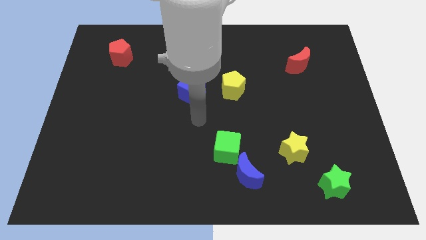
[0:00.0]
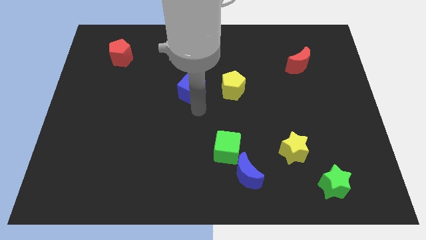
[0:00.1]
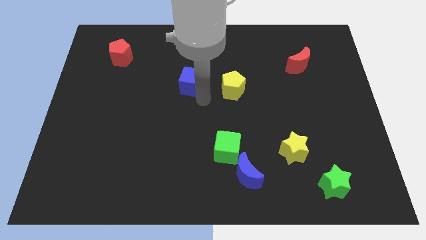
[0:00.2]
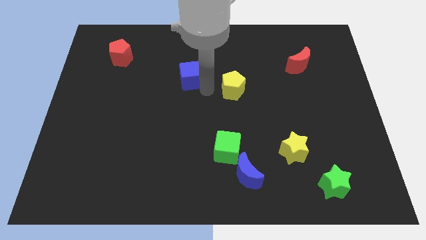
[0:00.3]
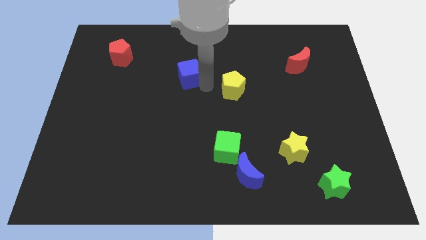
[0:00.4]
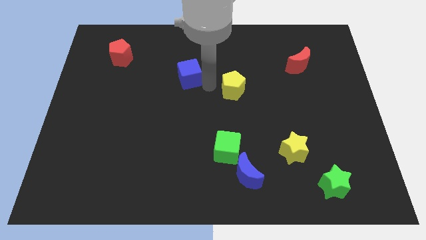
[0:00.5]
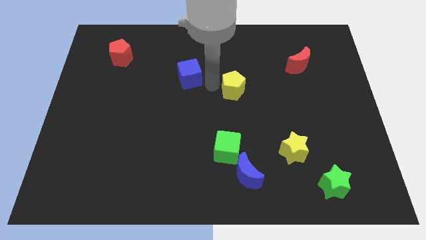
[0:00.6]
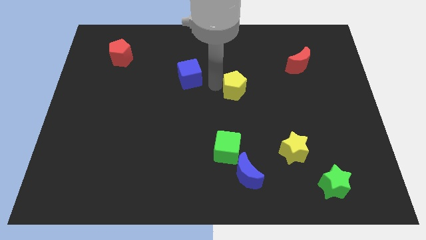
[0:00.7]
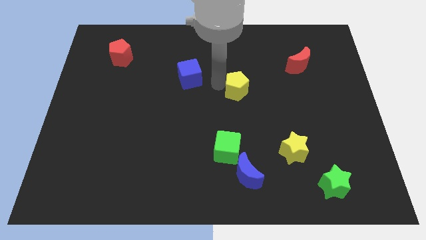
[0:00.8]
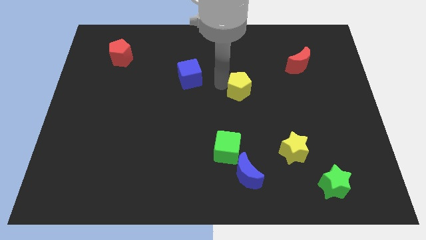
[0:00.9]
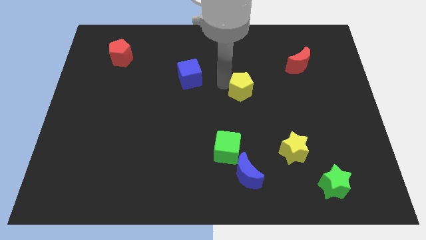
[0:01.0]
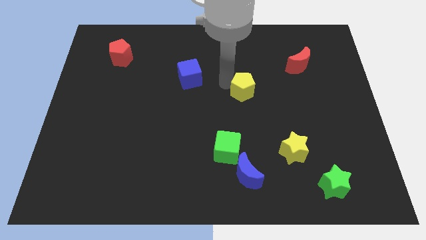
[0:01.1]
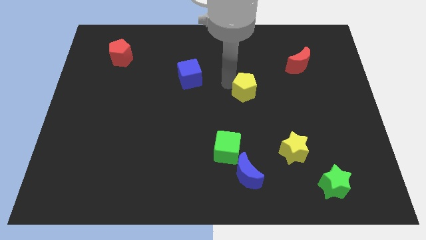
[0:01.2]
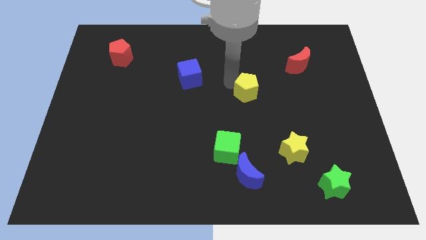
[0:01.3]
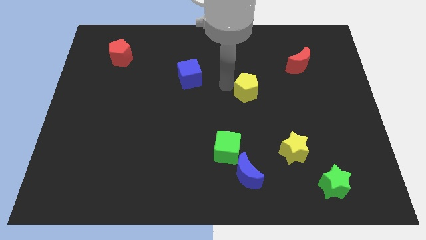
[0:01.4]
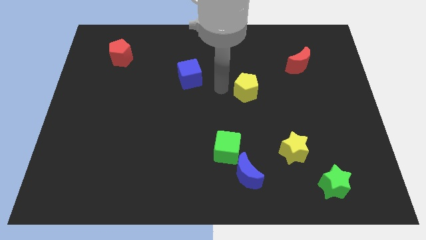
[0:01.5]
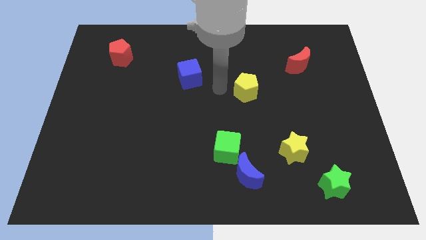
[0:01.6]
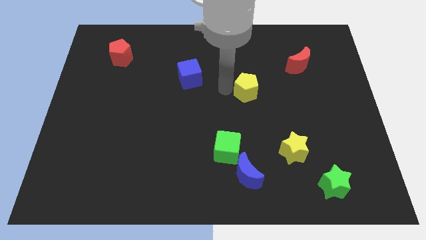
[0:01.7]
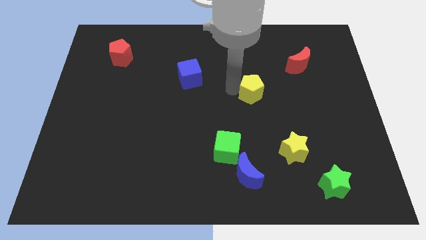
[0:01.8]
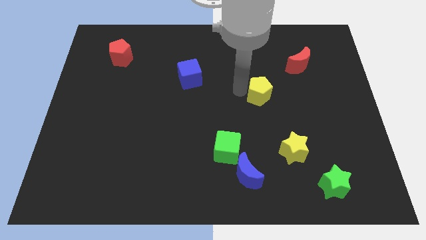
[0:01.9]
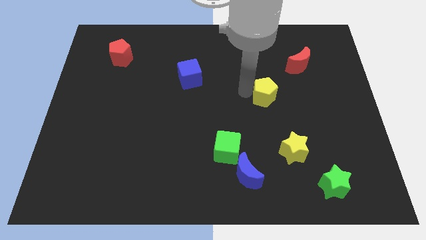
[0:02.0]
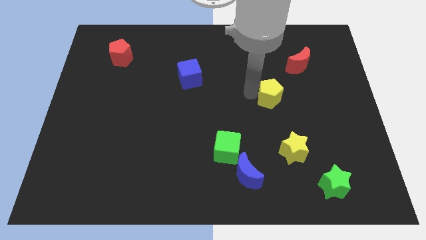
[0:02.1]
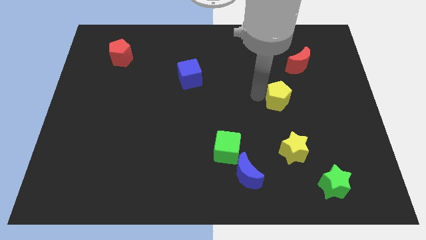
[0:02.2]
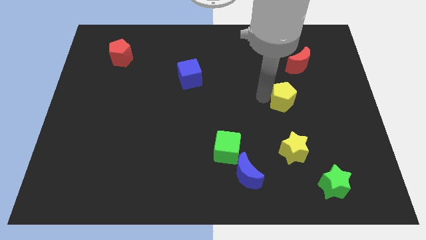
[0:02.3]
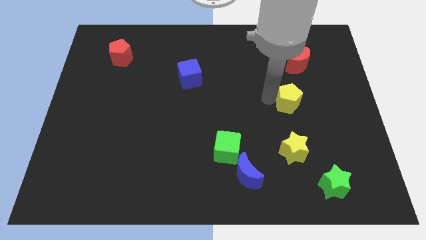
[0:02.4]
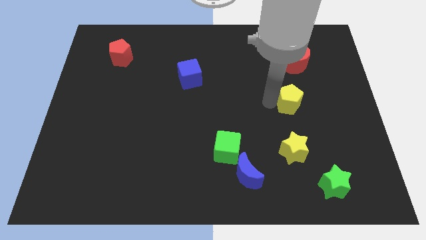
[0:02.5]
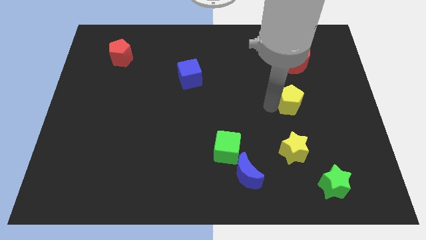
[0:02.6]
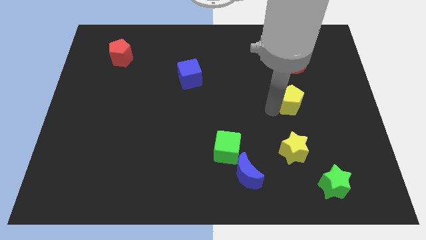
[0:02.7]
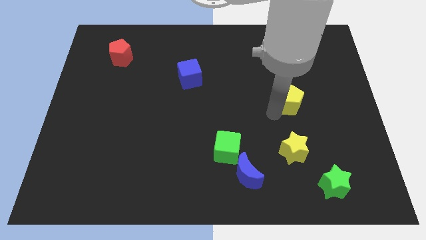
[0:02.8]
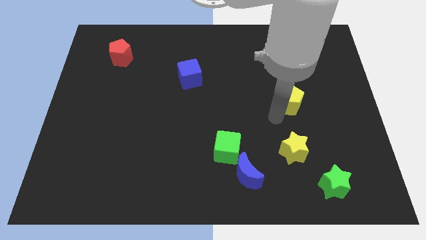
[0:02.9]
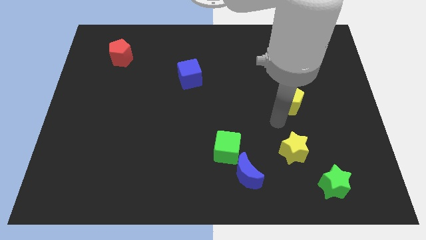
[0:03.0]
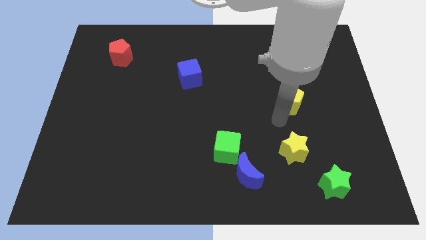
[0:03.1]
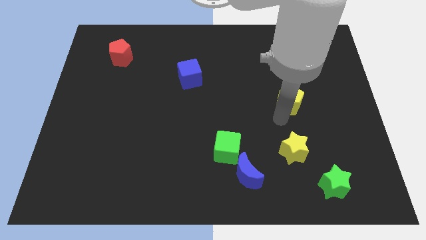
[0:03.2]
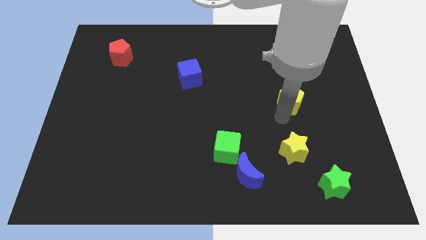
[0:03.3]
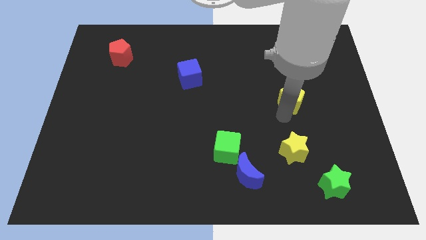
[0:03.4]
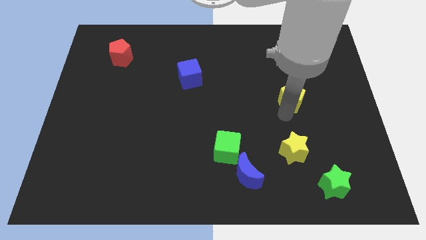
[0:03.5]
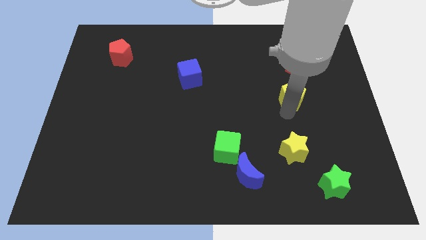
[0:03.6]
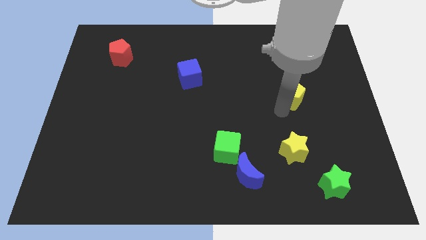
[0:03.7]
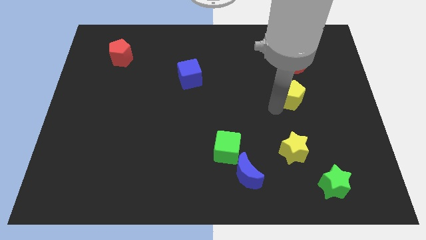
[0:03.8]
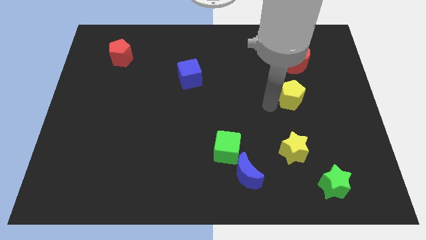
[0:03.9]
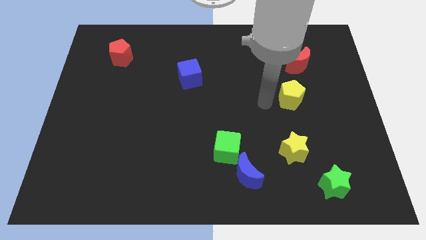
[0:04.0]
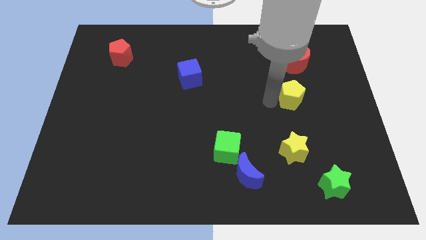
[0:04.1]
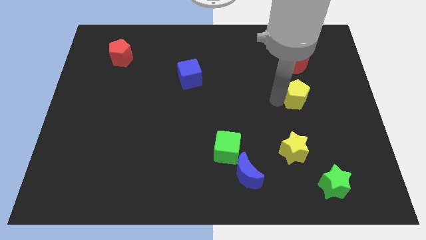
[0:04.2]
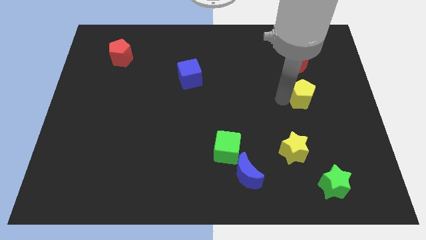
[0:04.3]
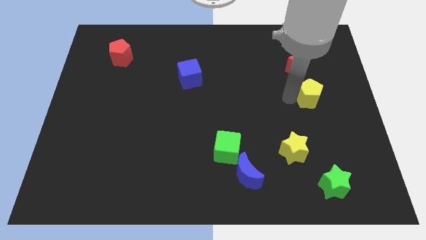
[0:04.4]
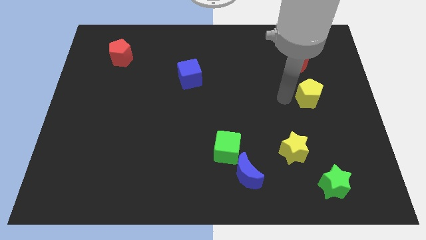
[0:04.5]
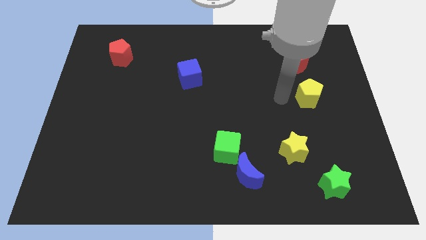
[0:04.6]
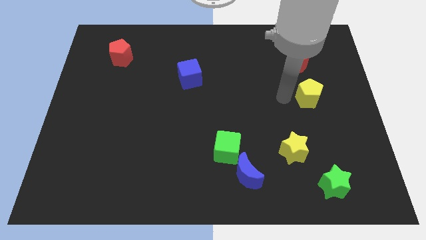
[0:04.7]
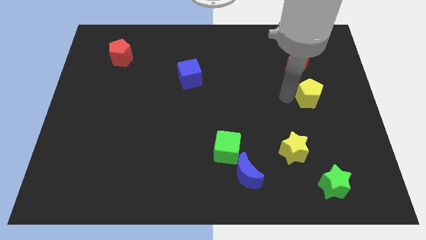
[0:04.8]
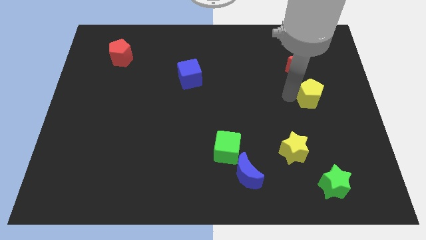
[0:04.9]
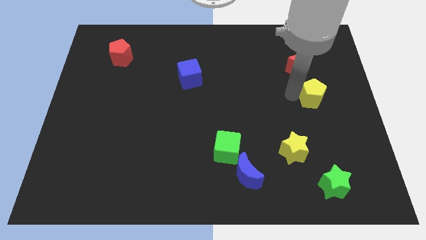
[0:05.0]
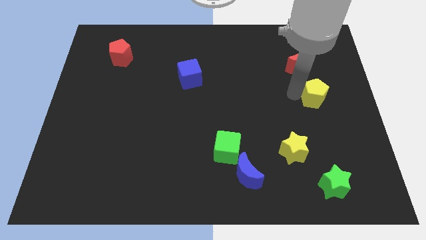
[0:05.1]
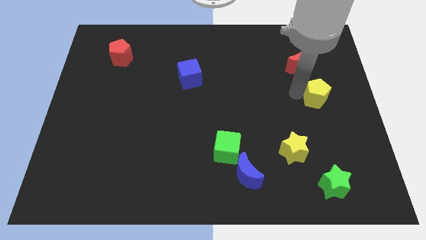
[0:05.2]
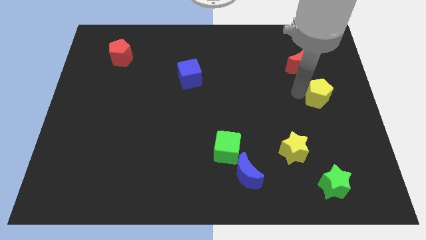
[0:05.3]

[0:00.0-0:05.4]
push the yellow pentagon to the right side of the board

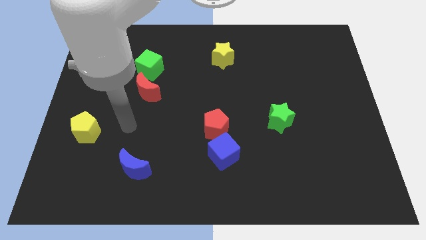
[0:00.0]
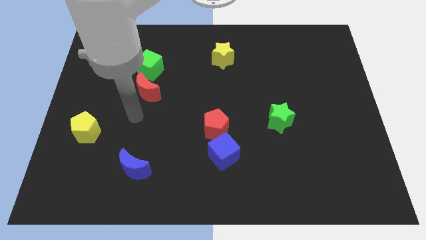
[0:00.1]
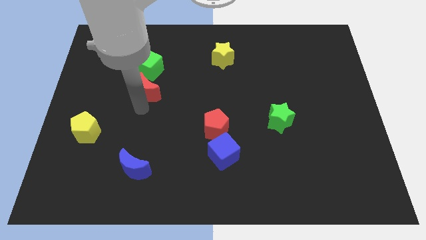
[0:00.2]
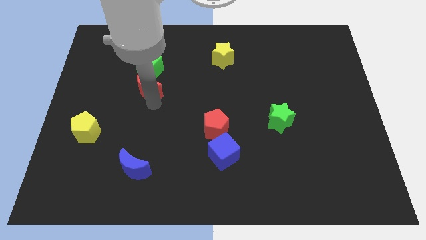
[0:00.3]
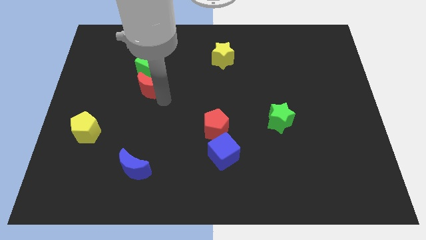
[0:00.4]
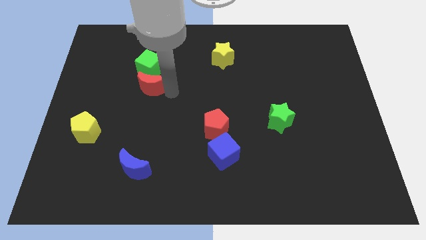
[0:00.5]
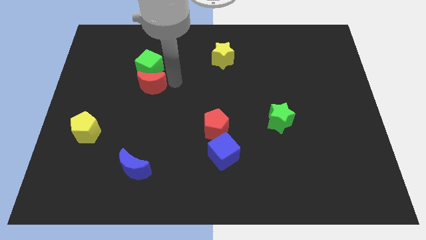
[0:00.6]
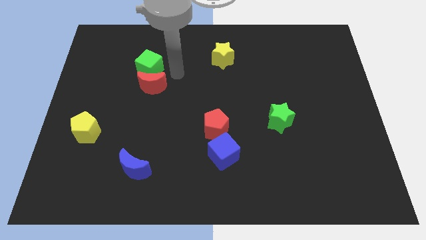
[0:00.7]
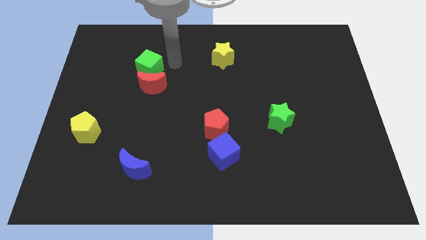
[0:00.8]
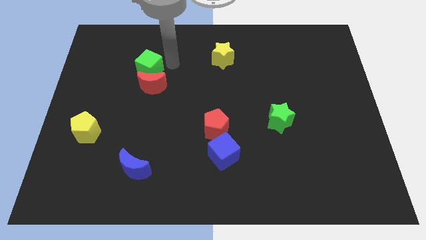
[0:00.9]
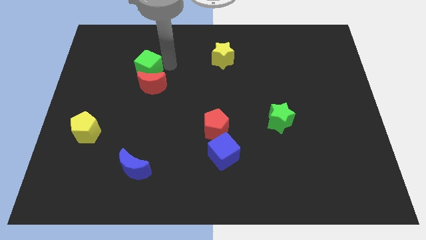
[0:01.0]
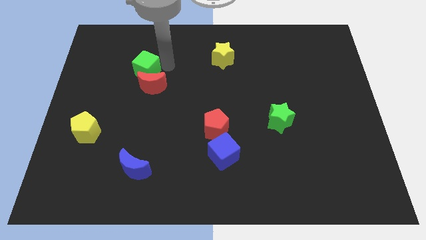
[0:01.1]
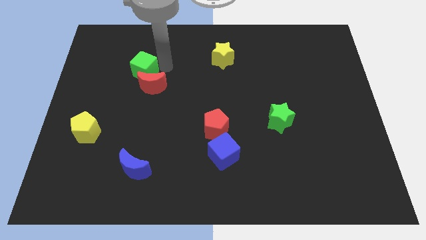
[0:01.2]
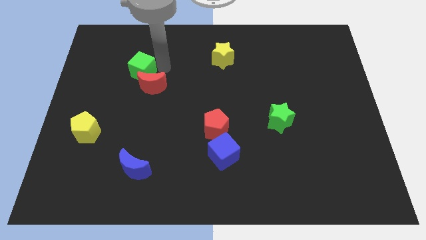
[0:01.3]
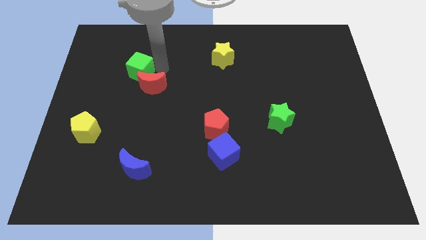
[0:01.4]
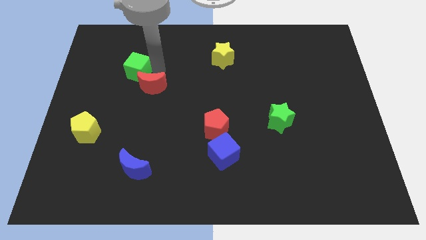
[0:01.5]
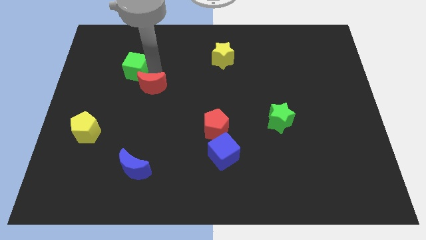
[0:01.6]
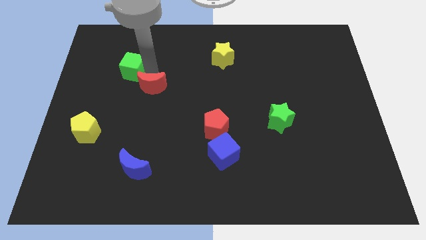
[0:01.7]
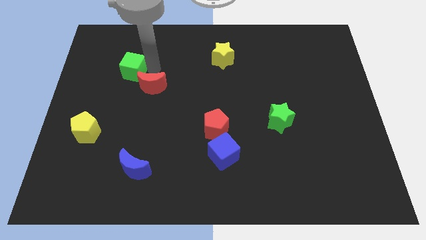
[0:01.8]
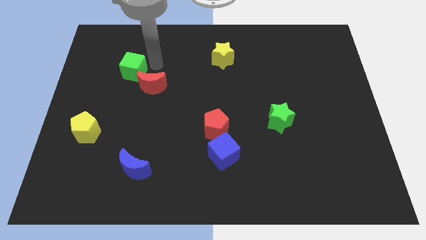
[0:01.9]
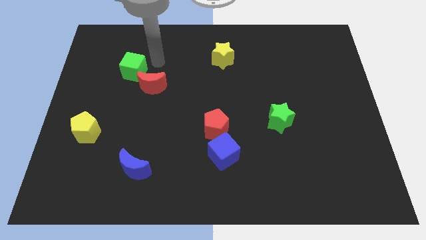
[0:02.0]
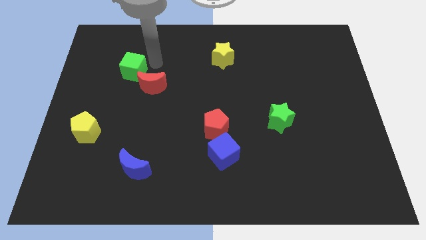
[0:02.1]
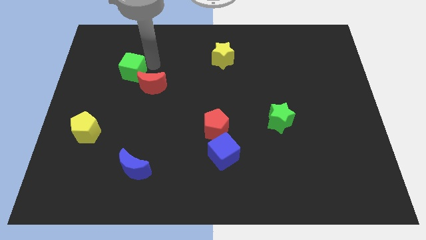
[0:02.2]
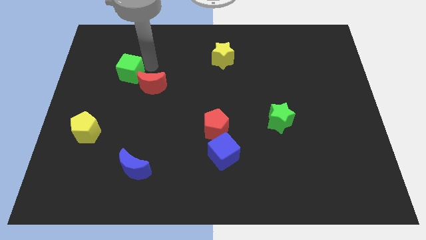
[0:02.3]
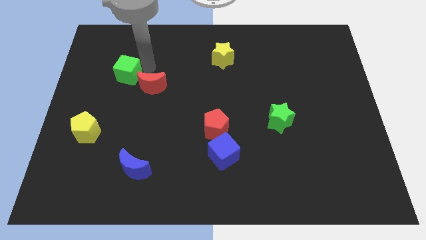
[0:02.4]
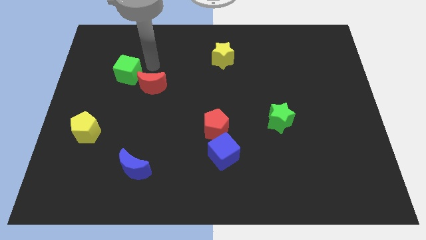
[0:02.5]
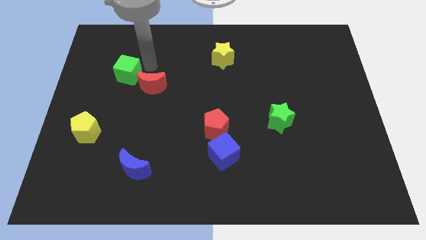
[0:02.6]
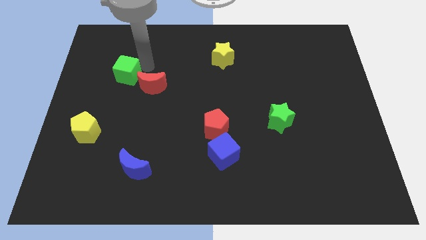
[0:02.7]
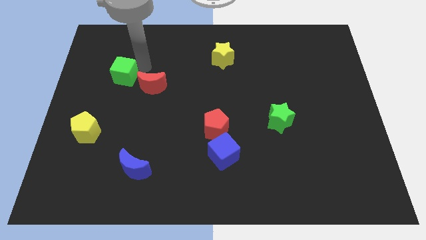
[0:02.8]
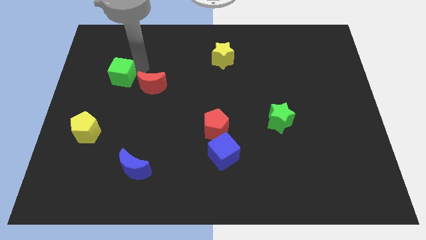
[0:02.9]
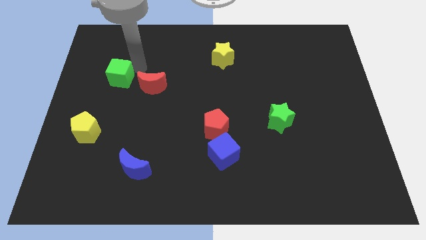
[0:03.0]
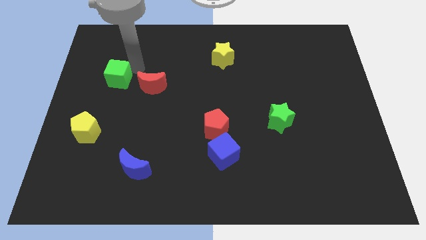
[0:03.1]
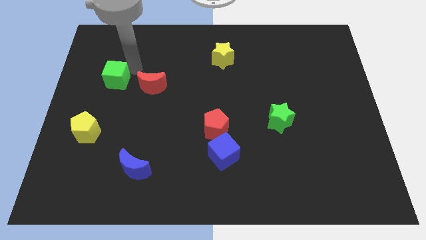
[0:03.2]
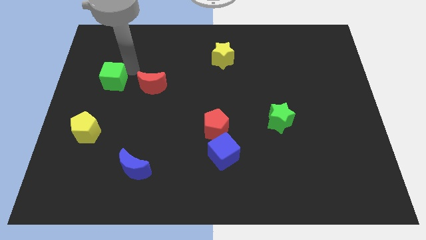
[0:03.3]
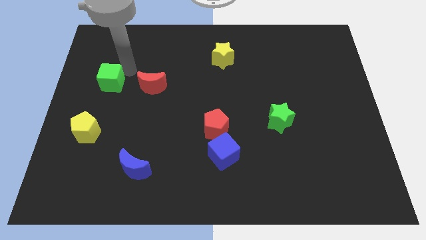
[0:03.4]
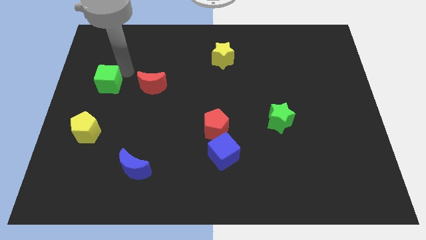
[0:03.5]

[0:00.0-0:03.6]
push the green cube to the left side of the board
